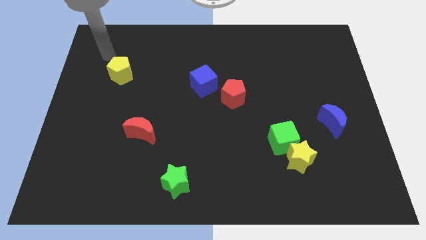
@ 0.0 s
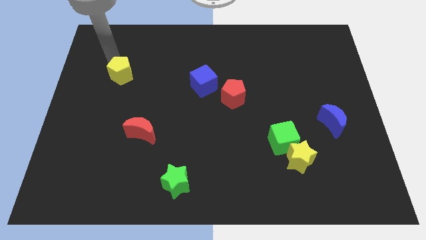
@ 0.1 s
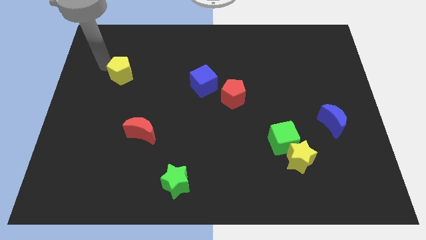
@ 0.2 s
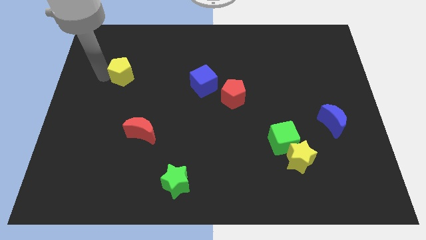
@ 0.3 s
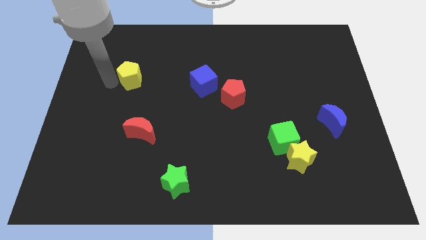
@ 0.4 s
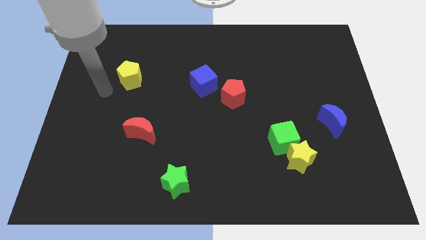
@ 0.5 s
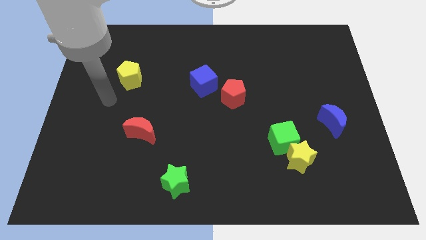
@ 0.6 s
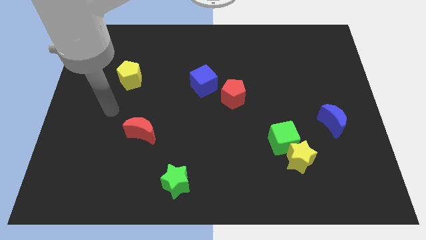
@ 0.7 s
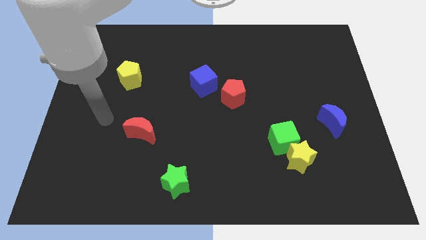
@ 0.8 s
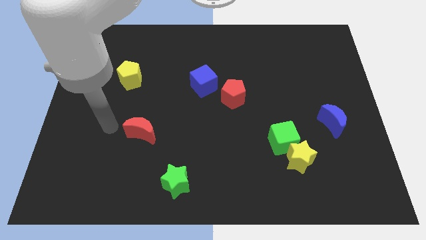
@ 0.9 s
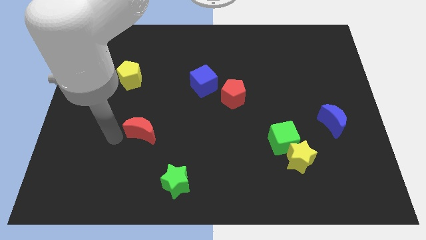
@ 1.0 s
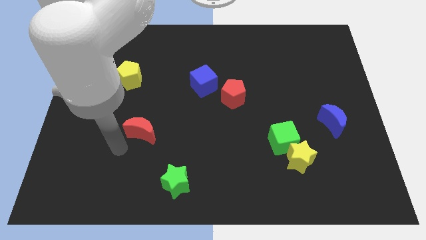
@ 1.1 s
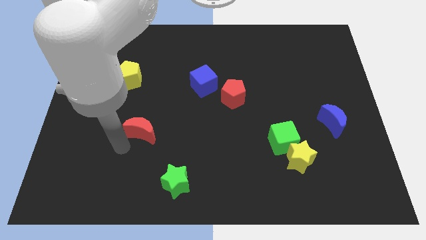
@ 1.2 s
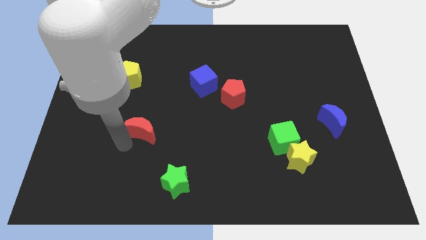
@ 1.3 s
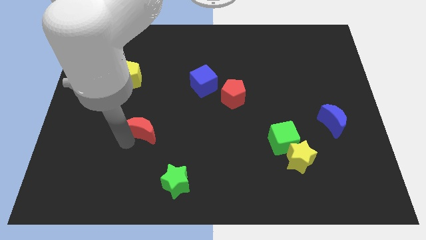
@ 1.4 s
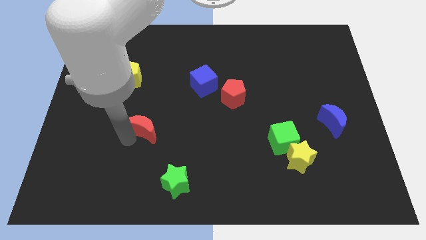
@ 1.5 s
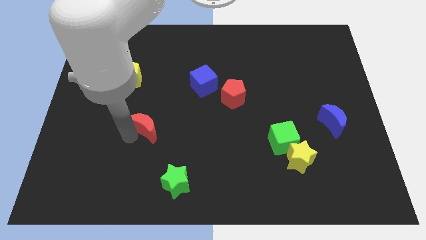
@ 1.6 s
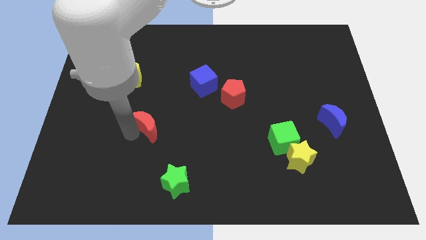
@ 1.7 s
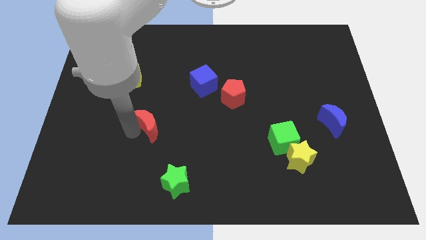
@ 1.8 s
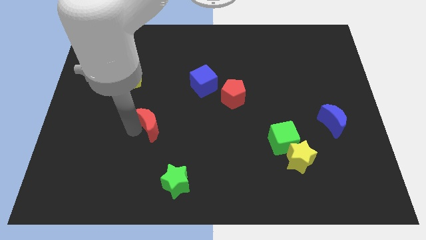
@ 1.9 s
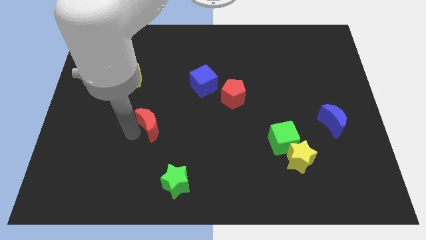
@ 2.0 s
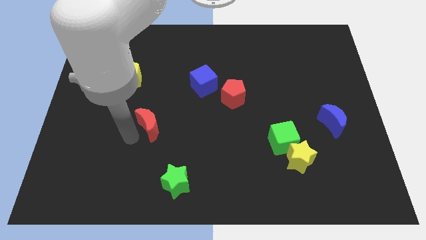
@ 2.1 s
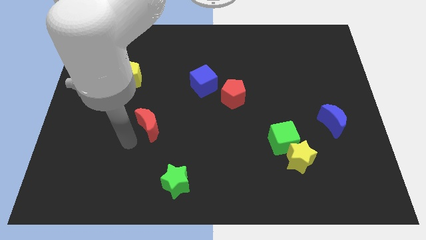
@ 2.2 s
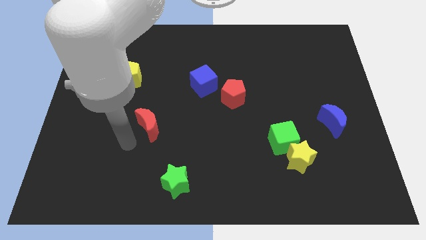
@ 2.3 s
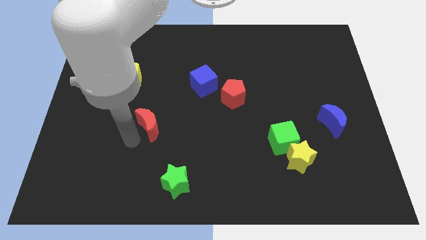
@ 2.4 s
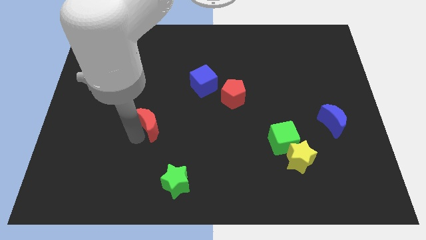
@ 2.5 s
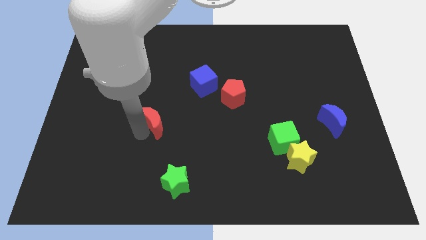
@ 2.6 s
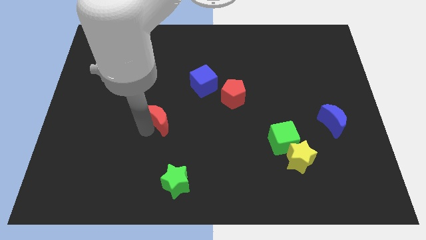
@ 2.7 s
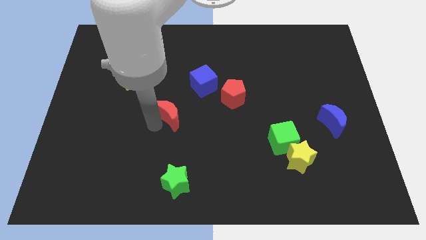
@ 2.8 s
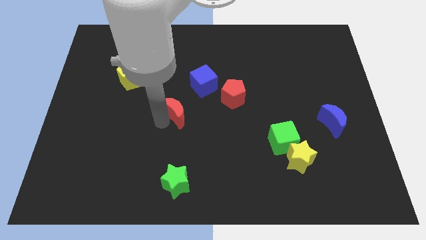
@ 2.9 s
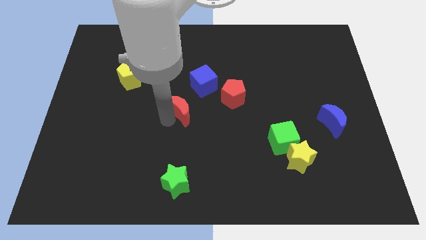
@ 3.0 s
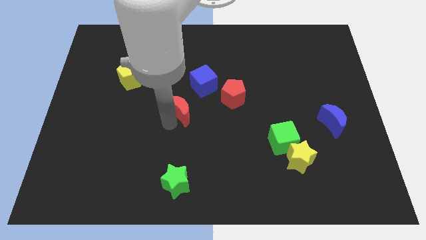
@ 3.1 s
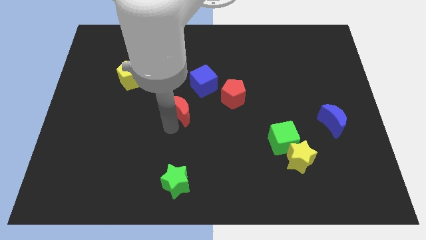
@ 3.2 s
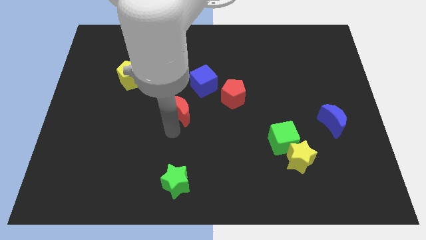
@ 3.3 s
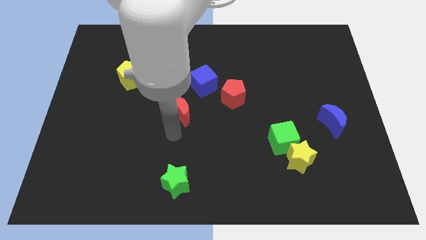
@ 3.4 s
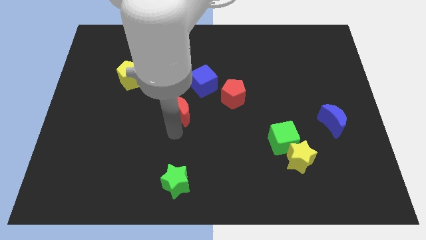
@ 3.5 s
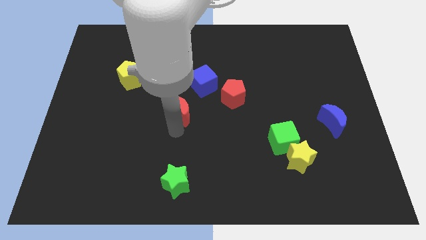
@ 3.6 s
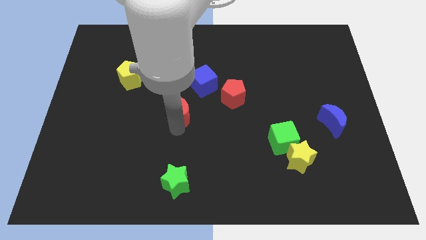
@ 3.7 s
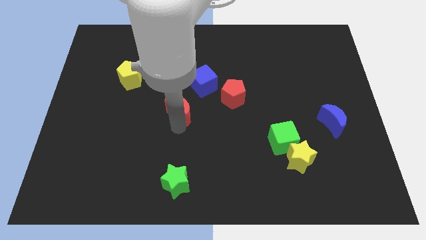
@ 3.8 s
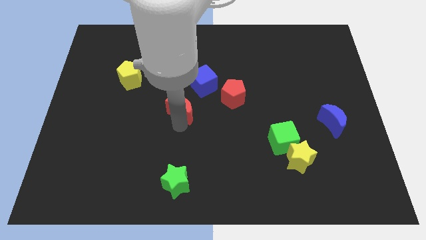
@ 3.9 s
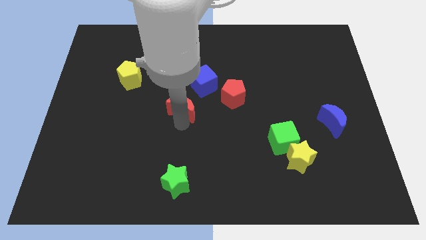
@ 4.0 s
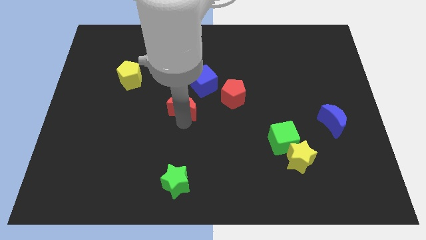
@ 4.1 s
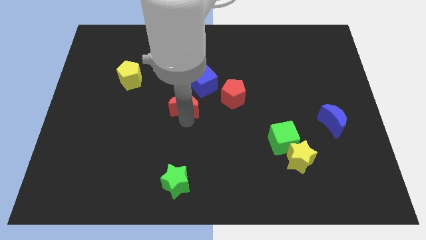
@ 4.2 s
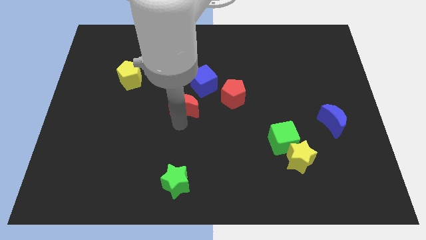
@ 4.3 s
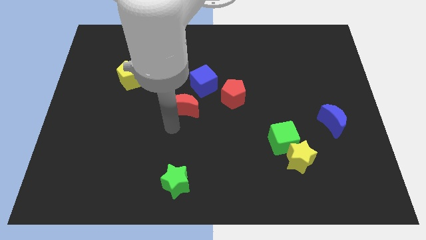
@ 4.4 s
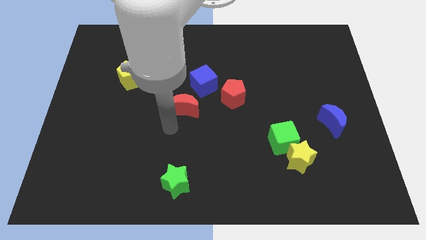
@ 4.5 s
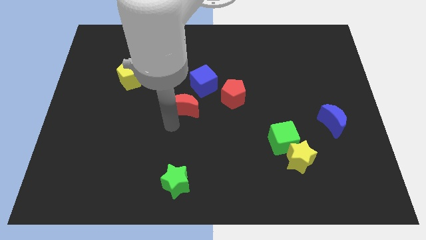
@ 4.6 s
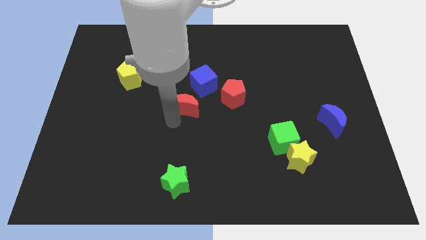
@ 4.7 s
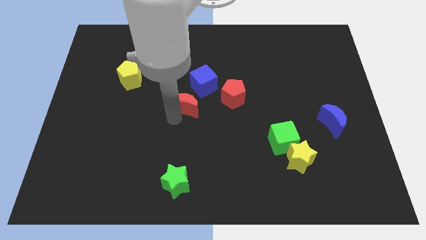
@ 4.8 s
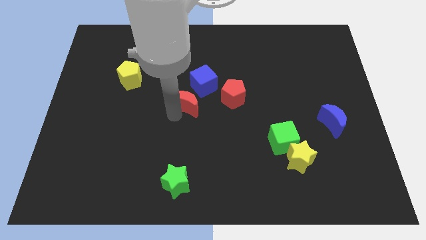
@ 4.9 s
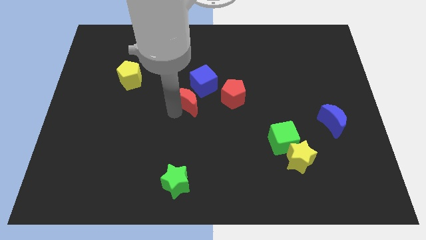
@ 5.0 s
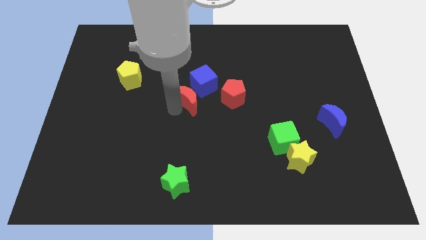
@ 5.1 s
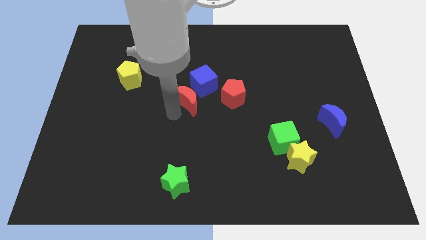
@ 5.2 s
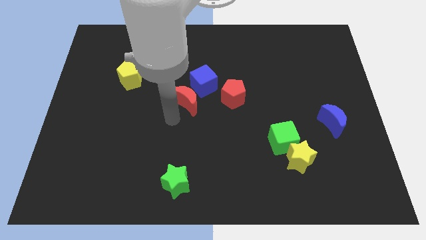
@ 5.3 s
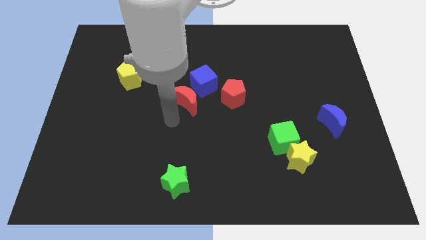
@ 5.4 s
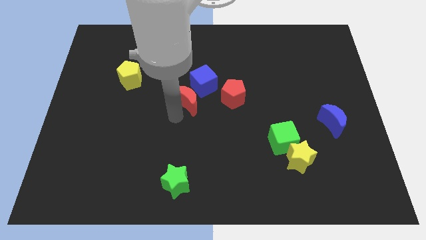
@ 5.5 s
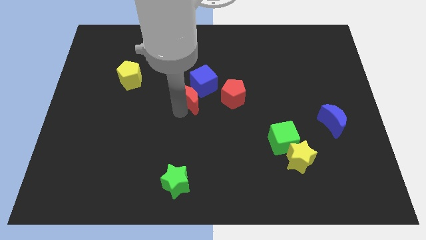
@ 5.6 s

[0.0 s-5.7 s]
slide the red moon close to the blue cube

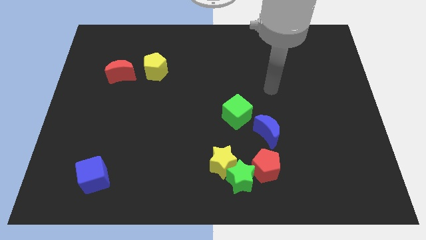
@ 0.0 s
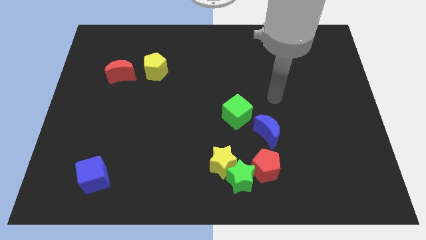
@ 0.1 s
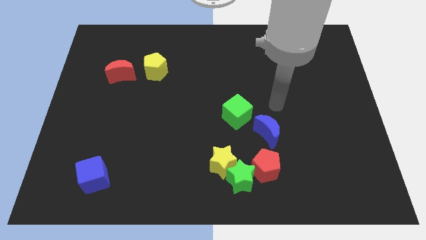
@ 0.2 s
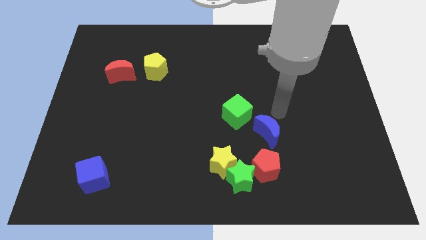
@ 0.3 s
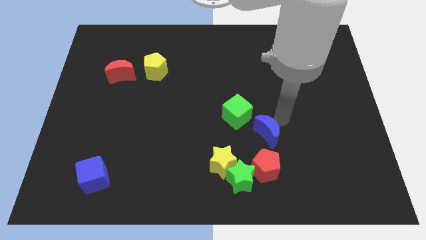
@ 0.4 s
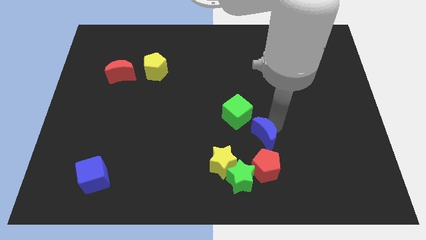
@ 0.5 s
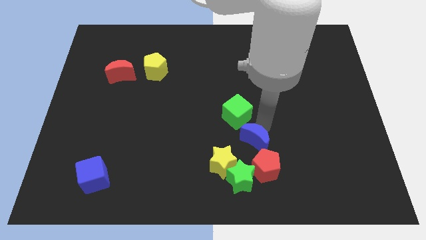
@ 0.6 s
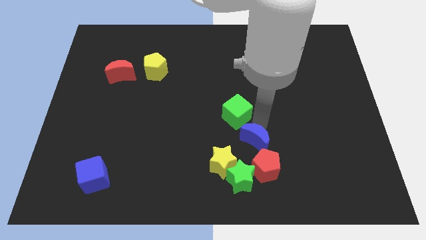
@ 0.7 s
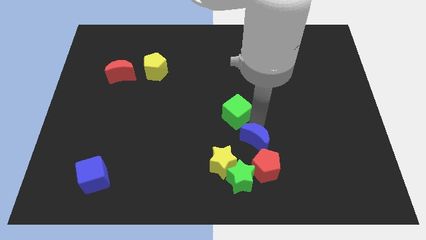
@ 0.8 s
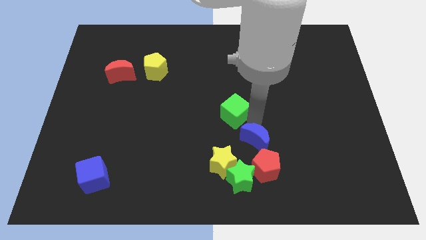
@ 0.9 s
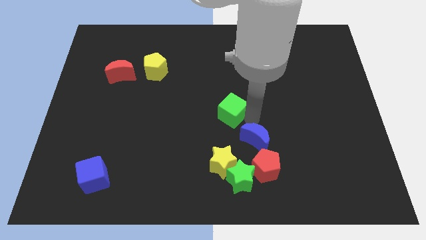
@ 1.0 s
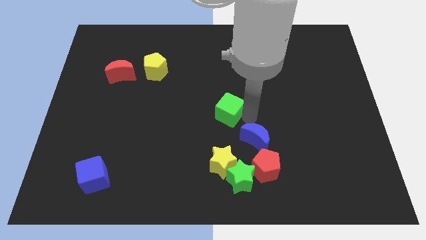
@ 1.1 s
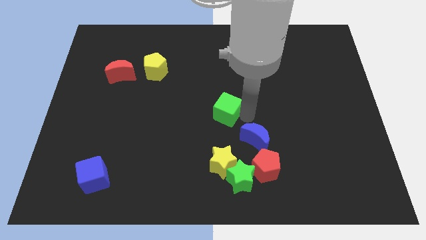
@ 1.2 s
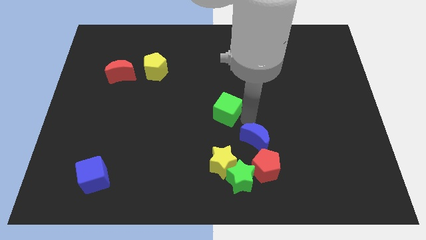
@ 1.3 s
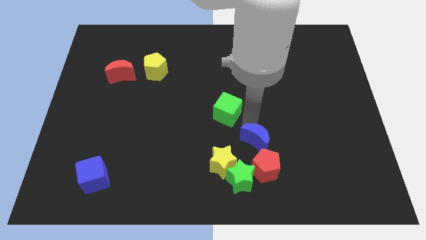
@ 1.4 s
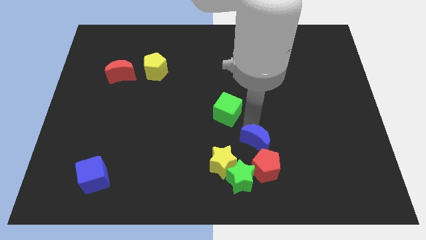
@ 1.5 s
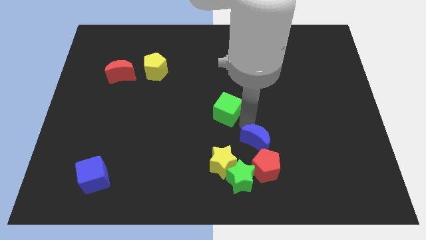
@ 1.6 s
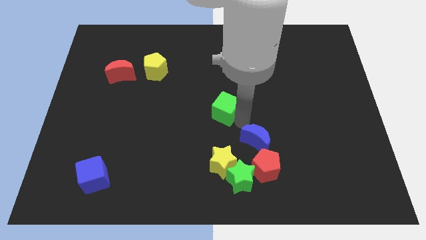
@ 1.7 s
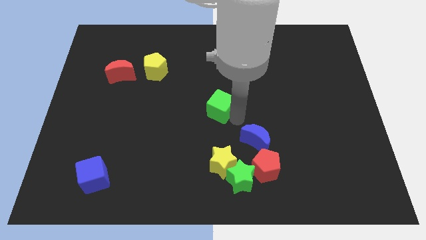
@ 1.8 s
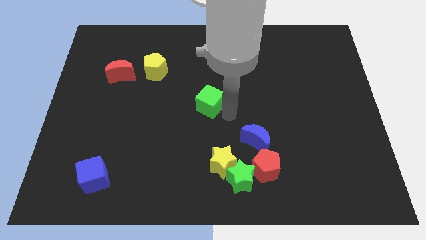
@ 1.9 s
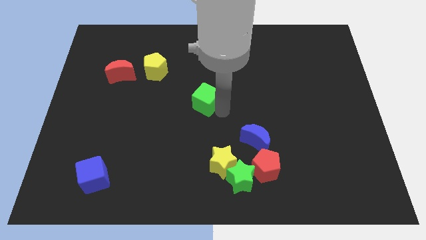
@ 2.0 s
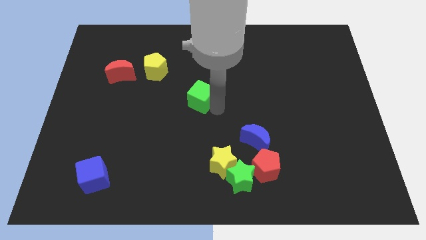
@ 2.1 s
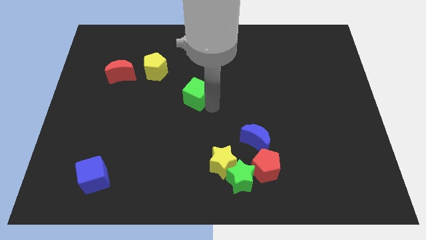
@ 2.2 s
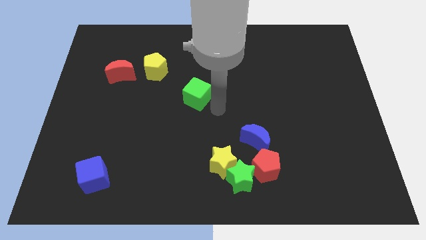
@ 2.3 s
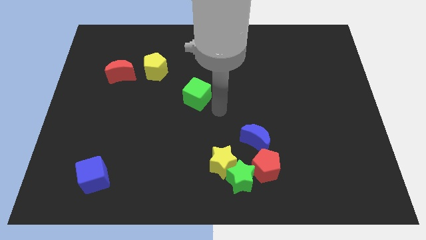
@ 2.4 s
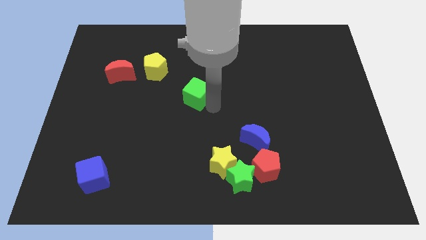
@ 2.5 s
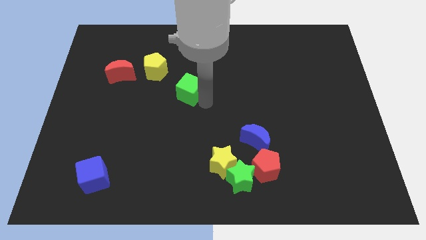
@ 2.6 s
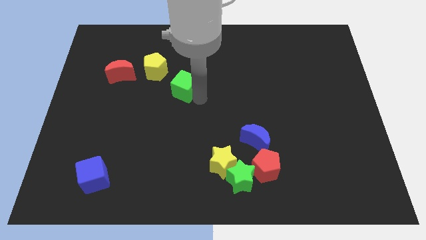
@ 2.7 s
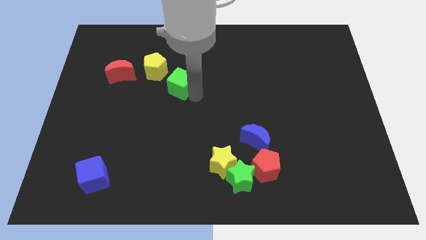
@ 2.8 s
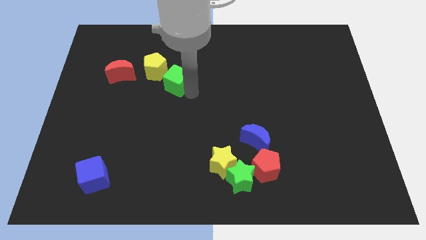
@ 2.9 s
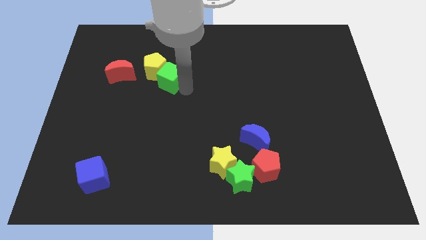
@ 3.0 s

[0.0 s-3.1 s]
put the green cube close to the yellow pentagon
